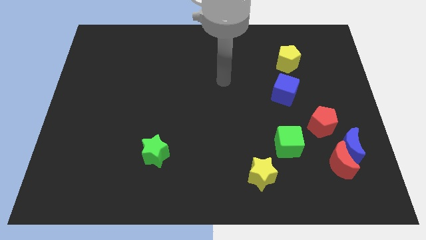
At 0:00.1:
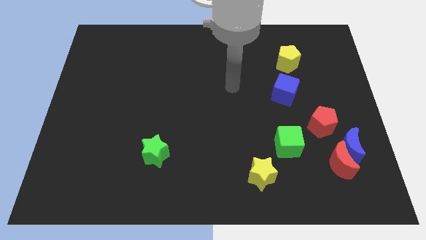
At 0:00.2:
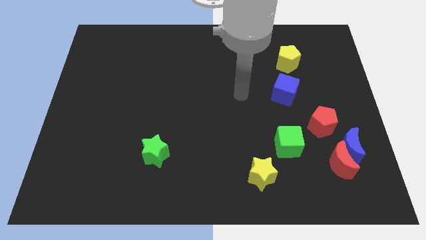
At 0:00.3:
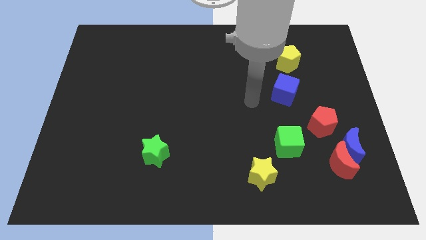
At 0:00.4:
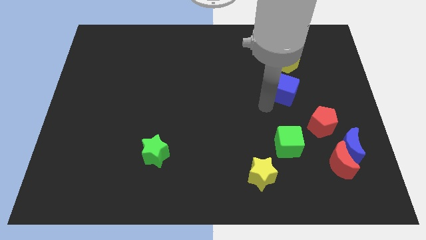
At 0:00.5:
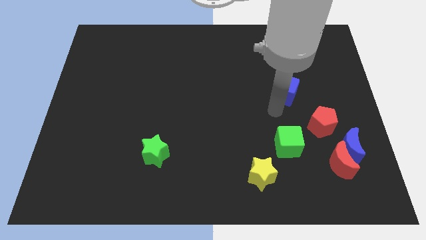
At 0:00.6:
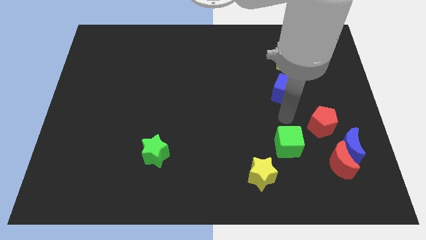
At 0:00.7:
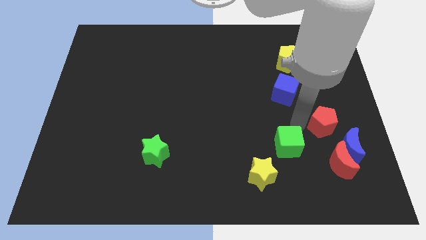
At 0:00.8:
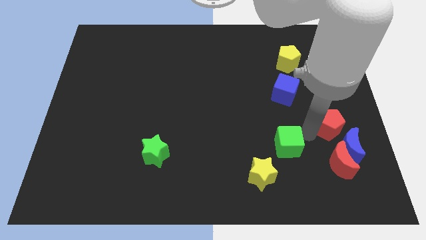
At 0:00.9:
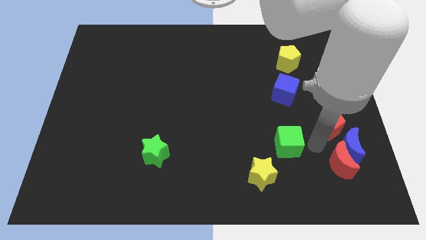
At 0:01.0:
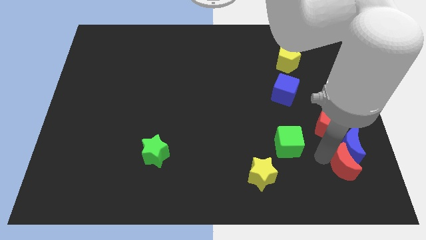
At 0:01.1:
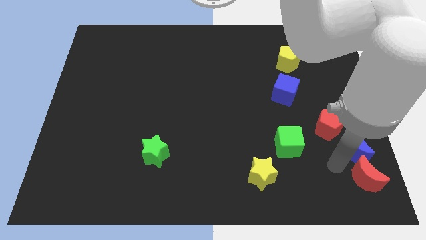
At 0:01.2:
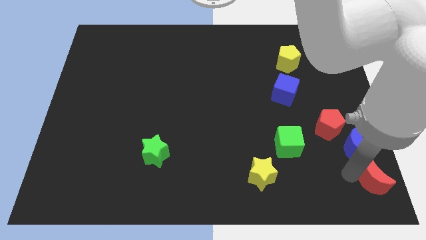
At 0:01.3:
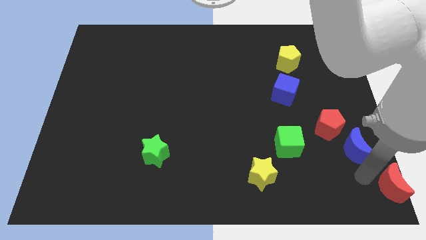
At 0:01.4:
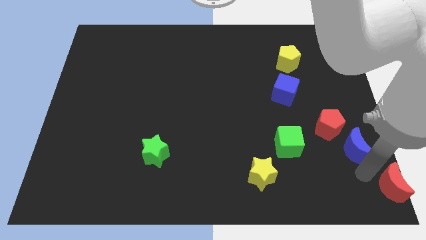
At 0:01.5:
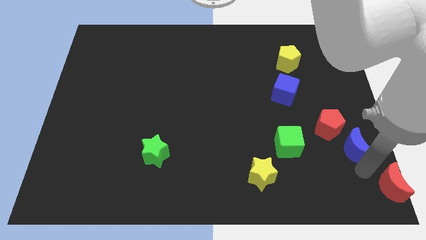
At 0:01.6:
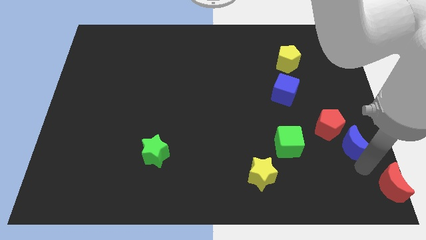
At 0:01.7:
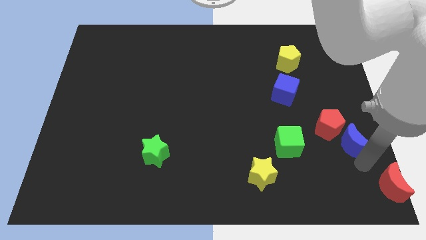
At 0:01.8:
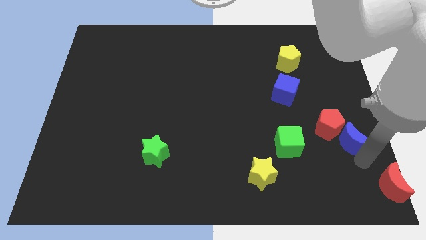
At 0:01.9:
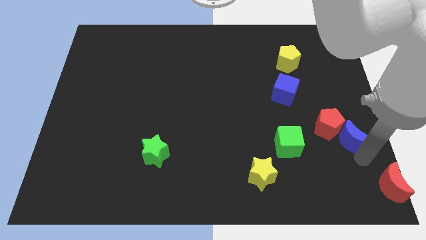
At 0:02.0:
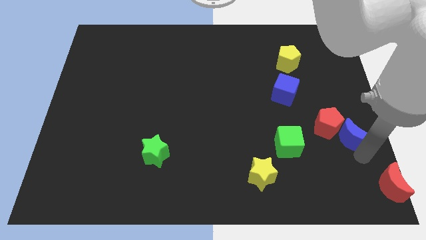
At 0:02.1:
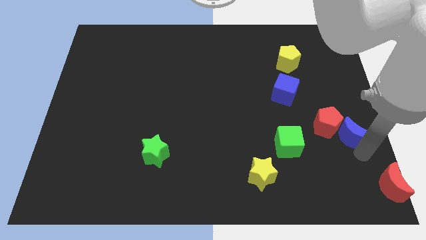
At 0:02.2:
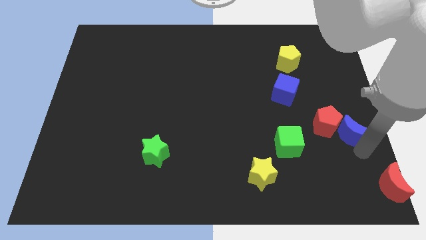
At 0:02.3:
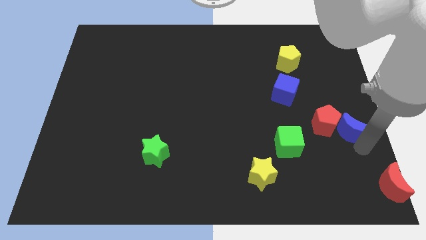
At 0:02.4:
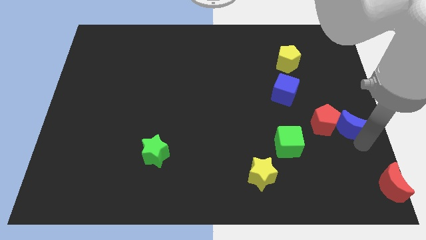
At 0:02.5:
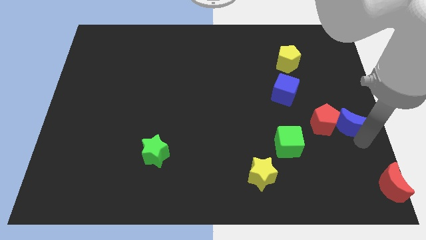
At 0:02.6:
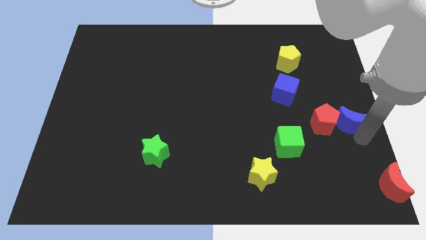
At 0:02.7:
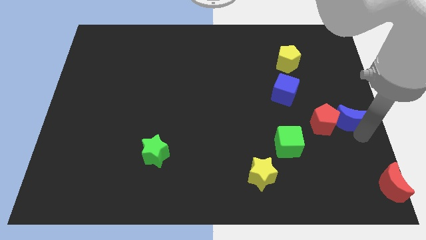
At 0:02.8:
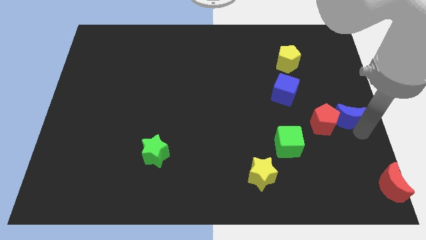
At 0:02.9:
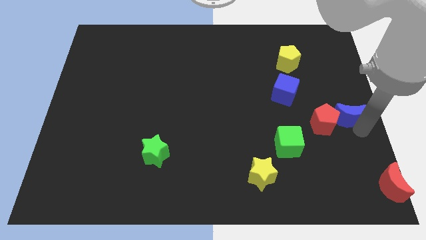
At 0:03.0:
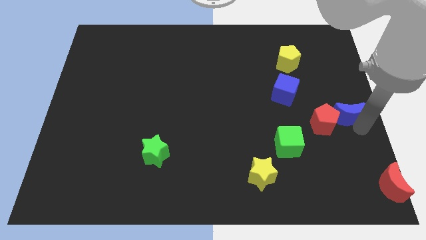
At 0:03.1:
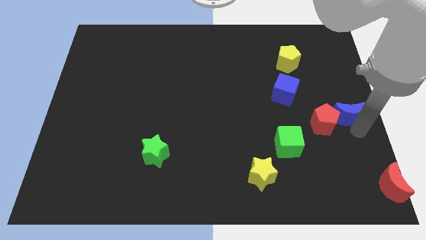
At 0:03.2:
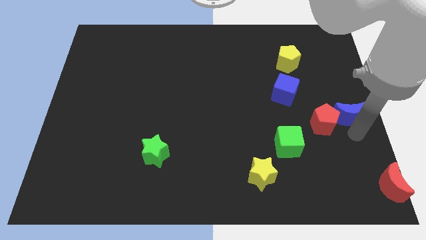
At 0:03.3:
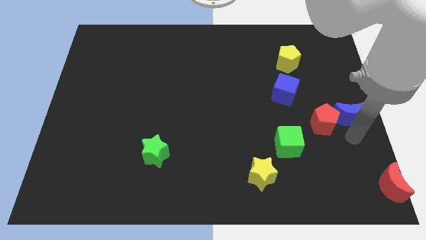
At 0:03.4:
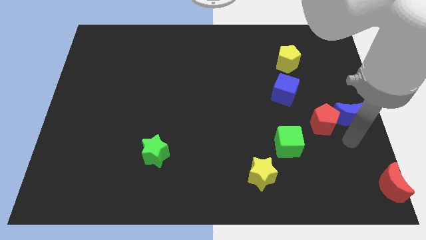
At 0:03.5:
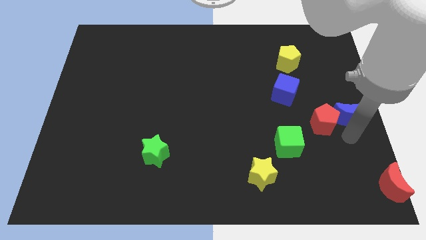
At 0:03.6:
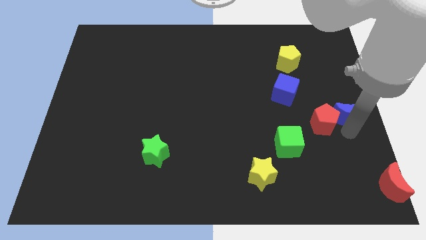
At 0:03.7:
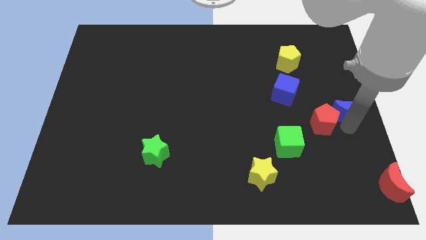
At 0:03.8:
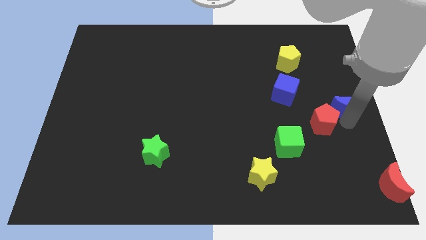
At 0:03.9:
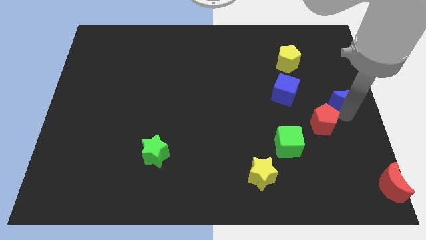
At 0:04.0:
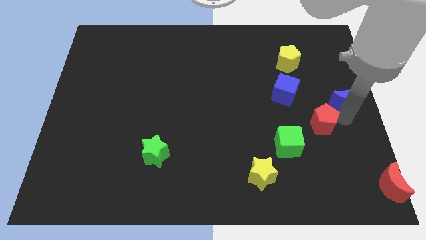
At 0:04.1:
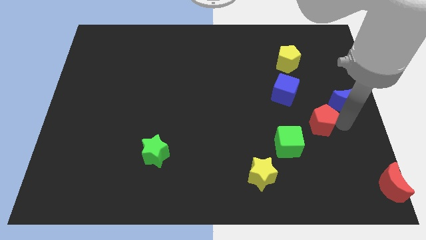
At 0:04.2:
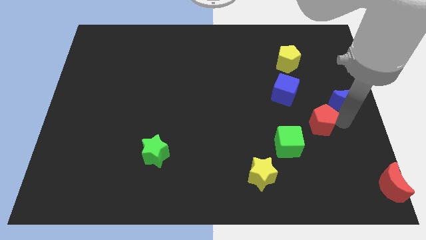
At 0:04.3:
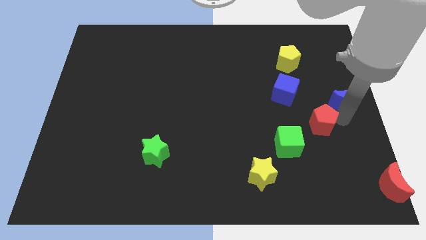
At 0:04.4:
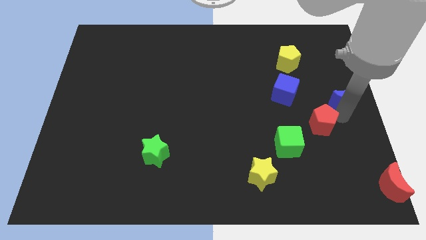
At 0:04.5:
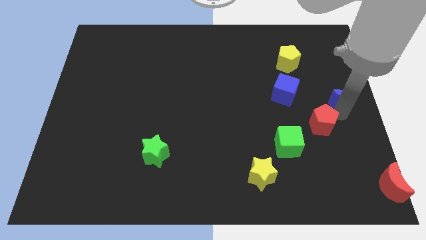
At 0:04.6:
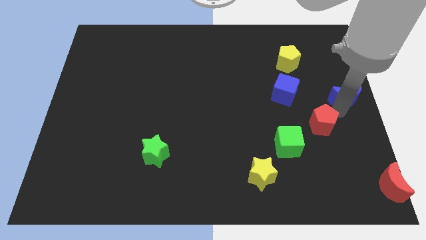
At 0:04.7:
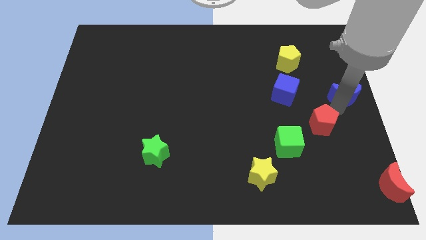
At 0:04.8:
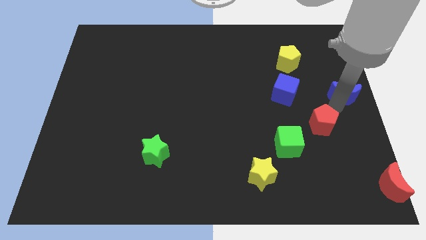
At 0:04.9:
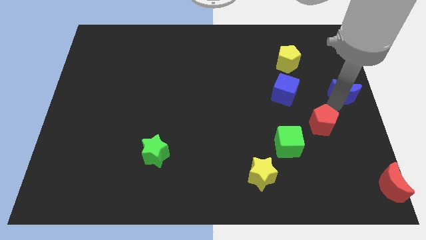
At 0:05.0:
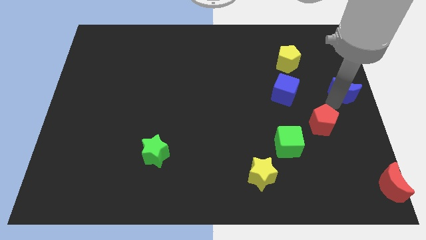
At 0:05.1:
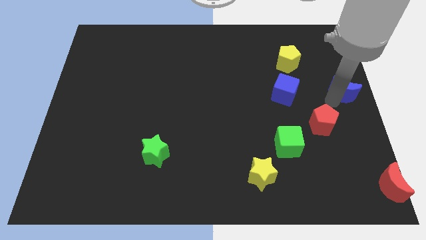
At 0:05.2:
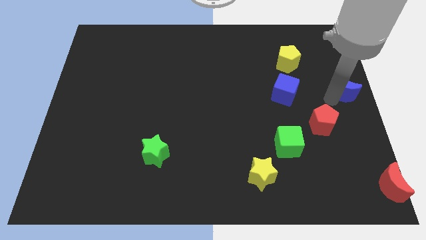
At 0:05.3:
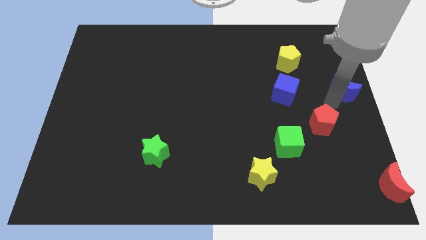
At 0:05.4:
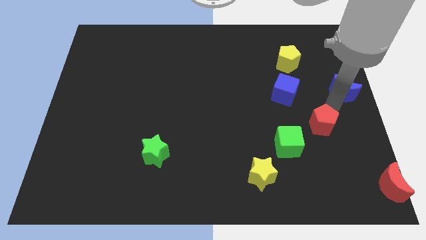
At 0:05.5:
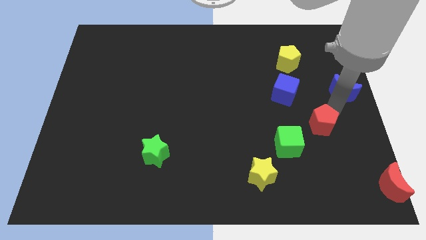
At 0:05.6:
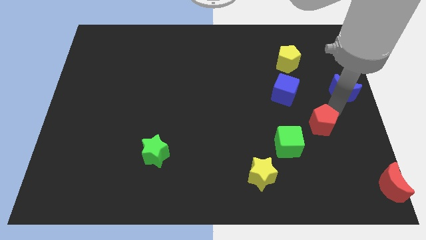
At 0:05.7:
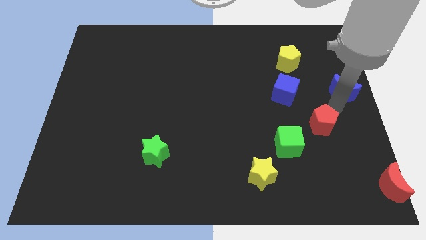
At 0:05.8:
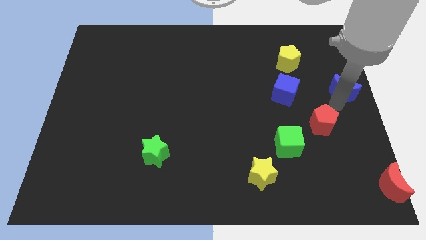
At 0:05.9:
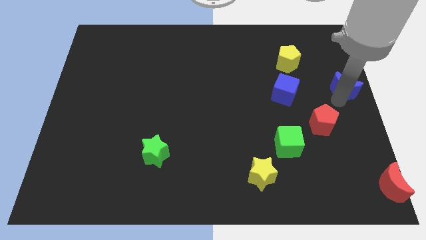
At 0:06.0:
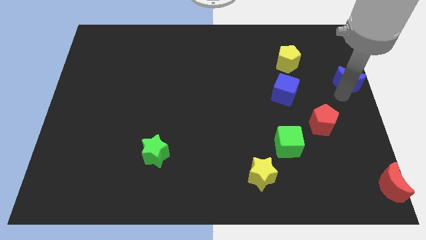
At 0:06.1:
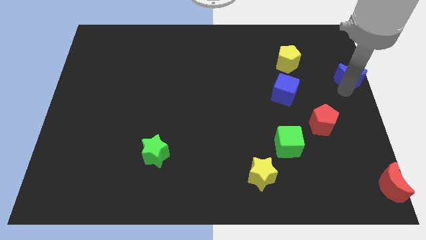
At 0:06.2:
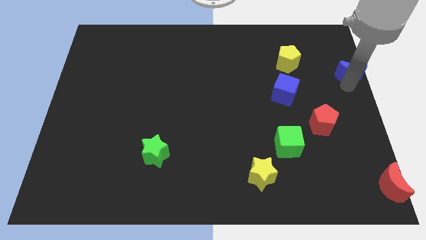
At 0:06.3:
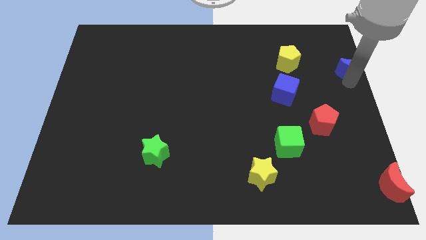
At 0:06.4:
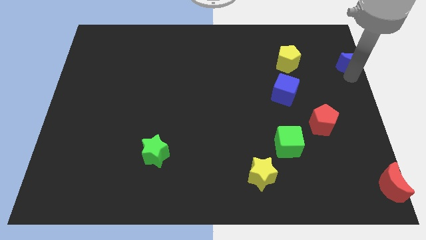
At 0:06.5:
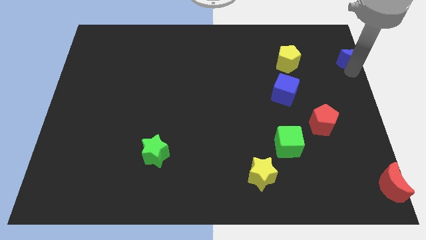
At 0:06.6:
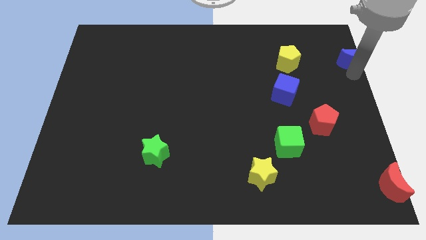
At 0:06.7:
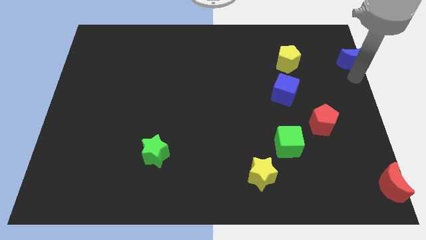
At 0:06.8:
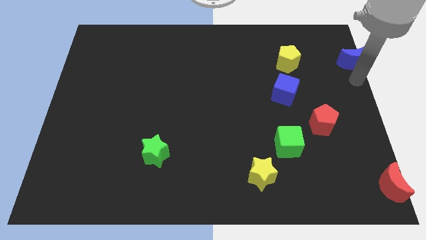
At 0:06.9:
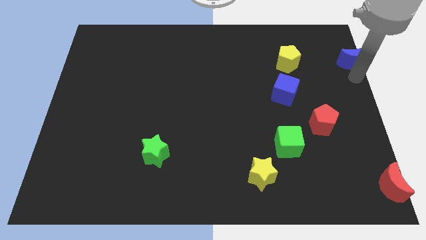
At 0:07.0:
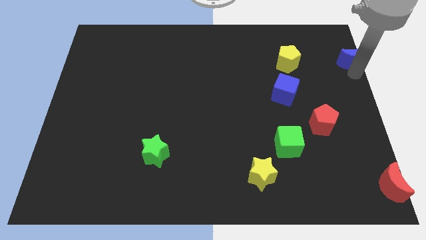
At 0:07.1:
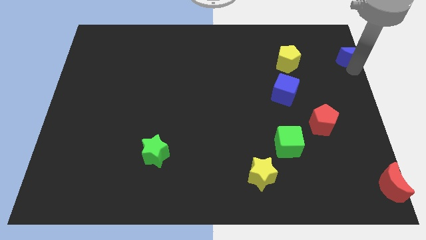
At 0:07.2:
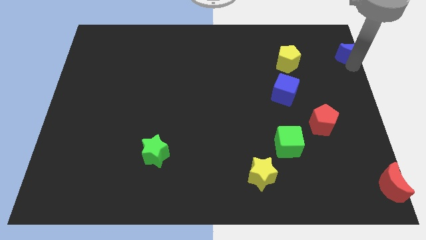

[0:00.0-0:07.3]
put the blue moon to the upper right corner
